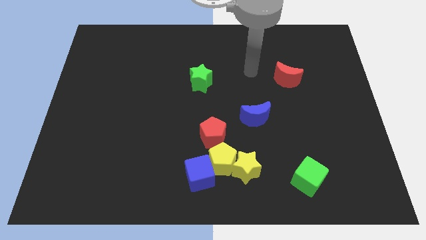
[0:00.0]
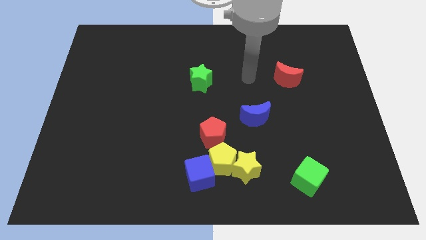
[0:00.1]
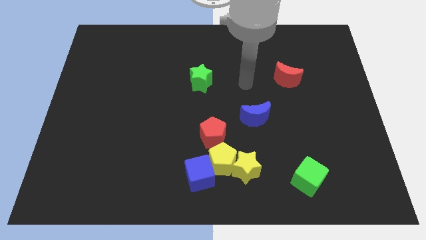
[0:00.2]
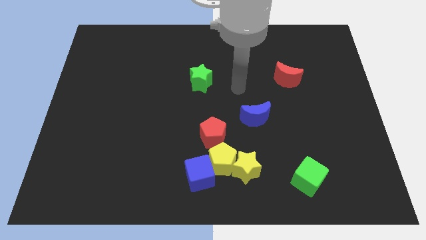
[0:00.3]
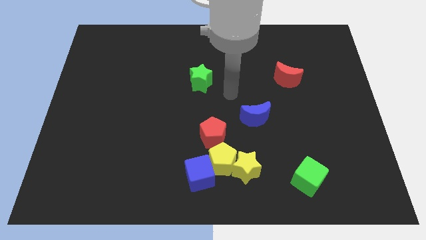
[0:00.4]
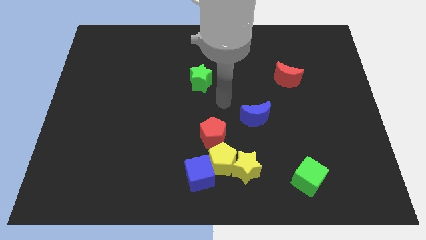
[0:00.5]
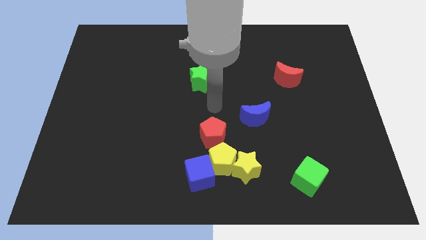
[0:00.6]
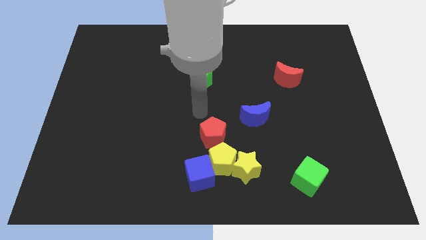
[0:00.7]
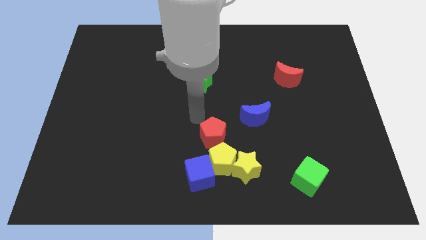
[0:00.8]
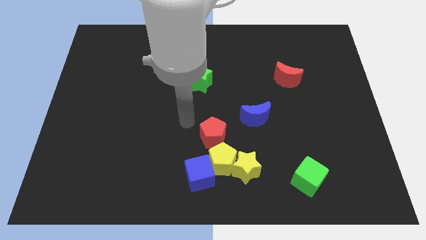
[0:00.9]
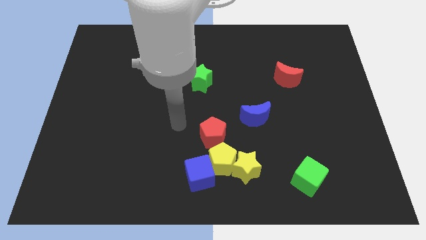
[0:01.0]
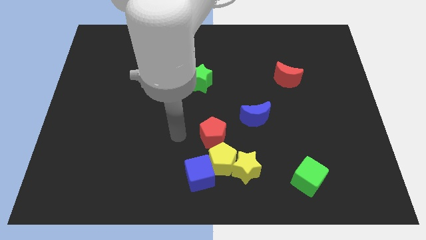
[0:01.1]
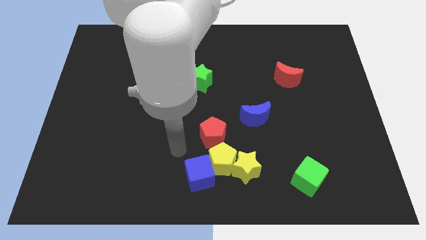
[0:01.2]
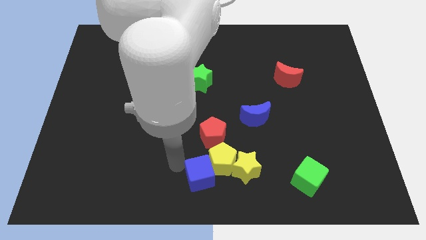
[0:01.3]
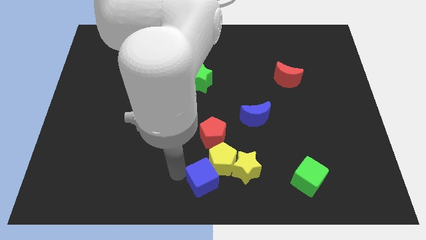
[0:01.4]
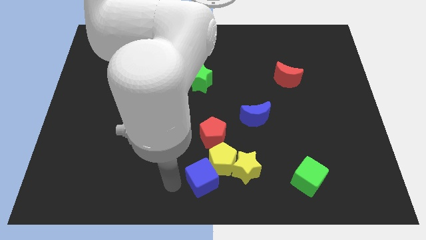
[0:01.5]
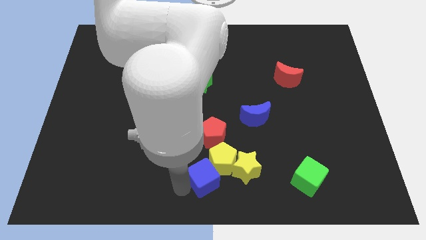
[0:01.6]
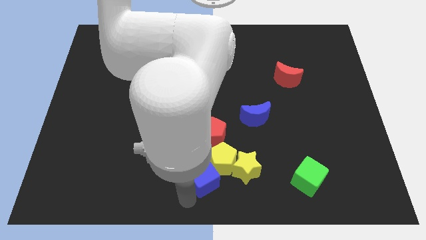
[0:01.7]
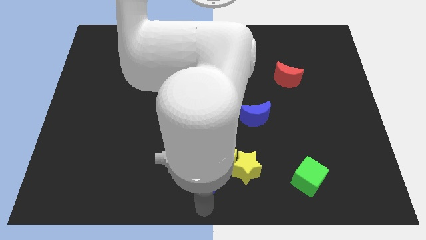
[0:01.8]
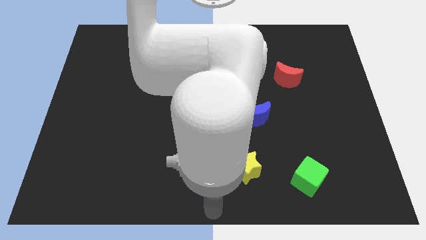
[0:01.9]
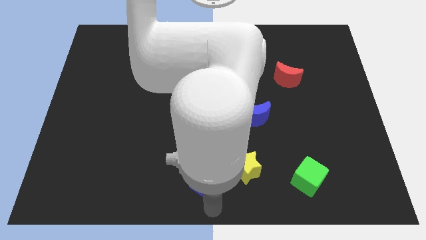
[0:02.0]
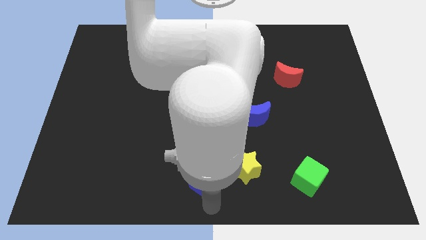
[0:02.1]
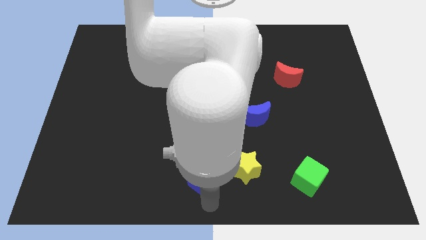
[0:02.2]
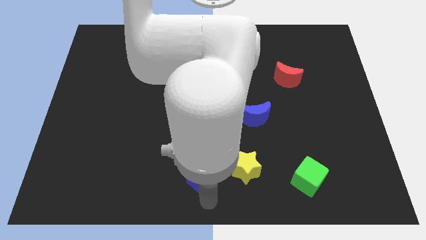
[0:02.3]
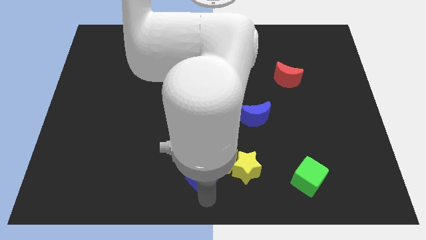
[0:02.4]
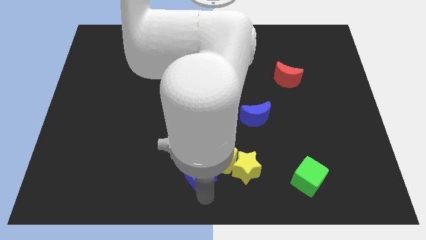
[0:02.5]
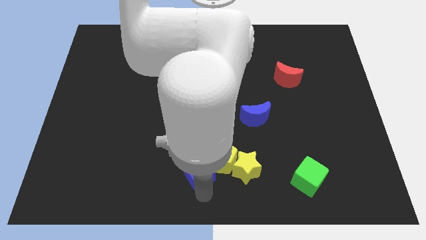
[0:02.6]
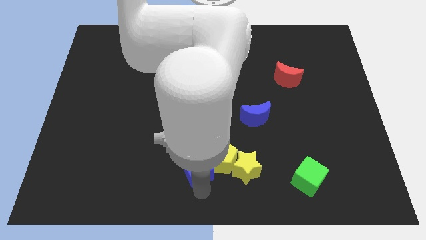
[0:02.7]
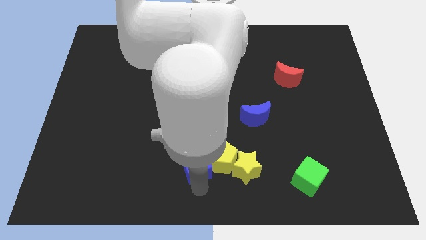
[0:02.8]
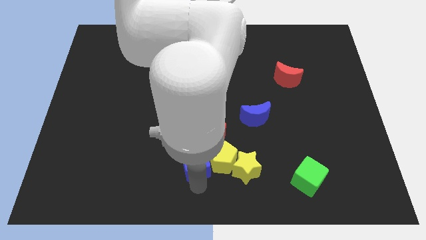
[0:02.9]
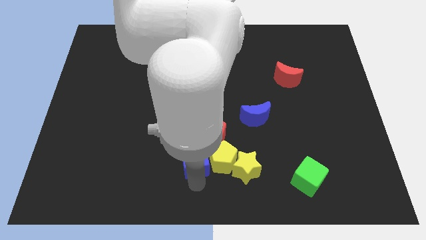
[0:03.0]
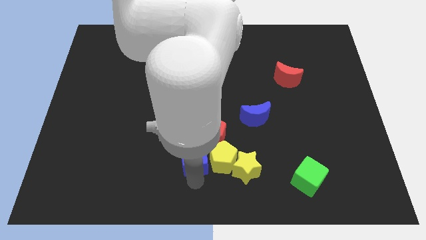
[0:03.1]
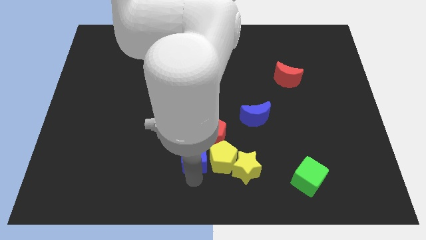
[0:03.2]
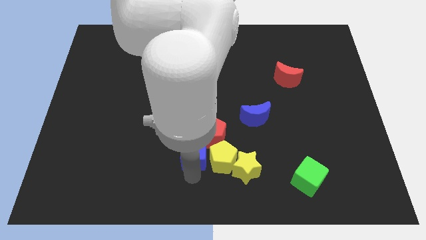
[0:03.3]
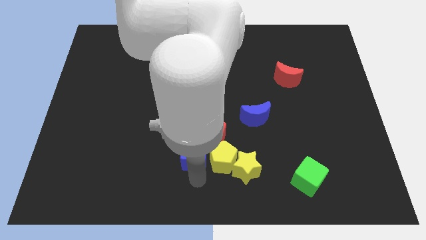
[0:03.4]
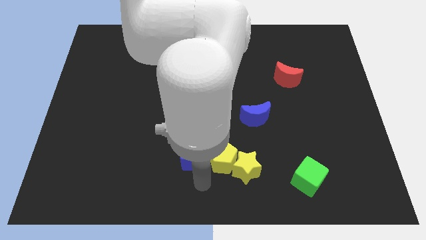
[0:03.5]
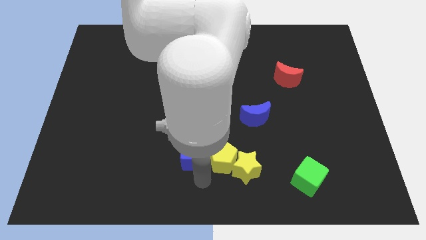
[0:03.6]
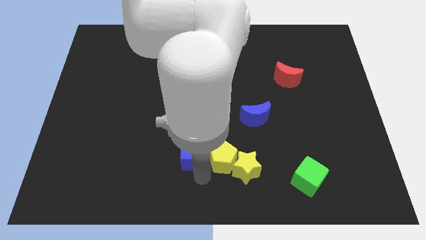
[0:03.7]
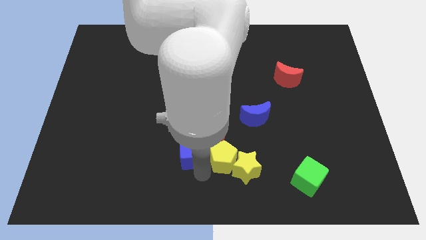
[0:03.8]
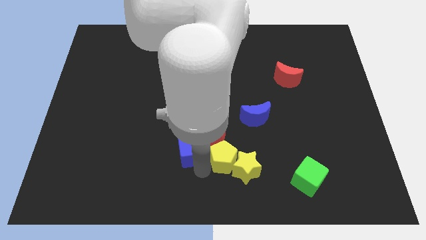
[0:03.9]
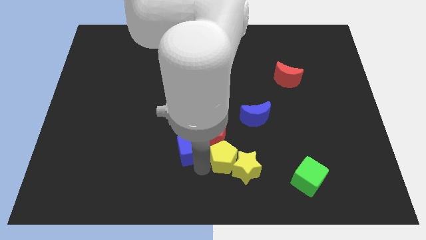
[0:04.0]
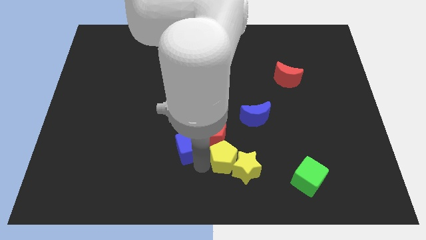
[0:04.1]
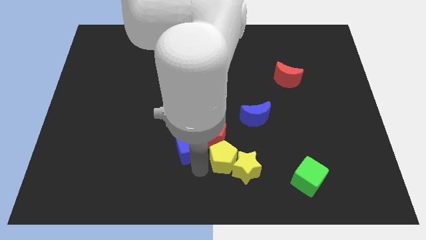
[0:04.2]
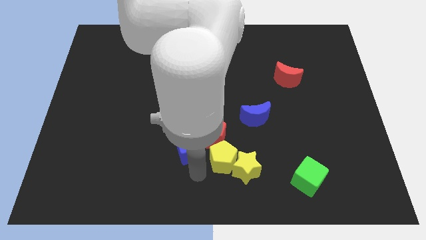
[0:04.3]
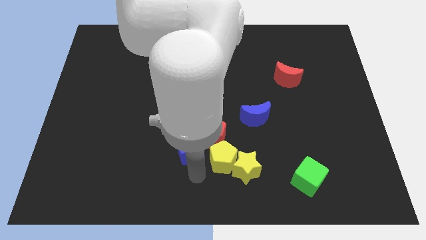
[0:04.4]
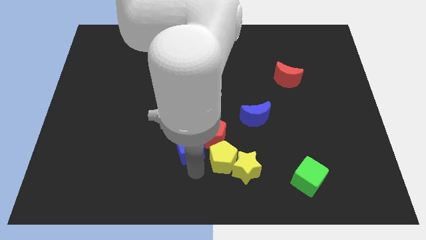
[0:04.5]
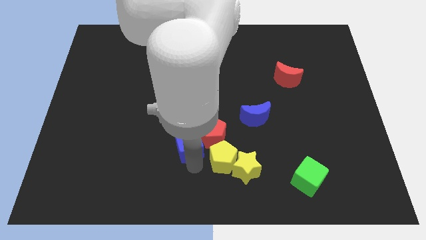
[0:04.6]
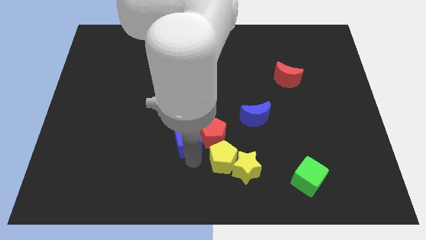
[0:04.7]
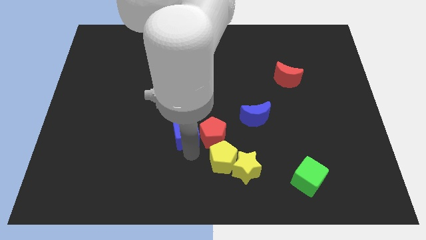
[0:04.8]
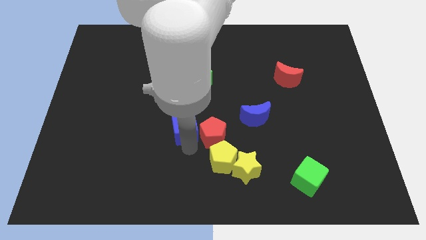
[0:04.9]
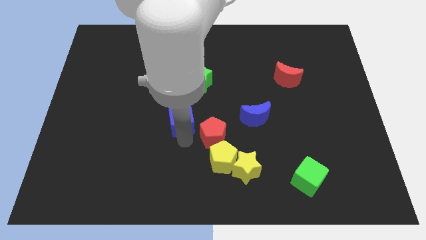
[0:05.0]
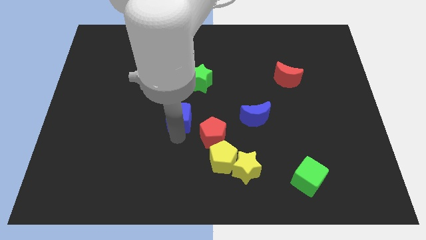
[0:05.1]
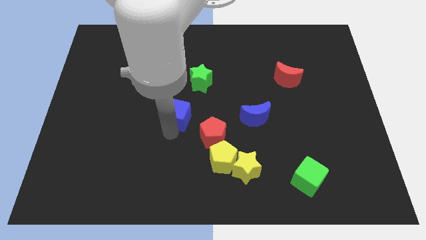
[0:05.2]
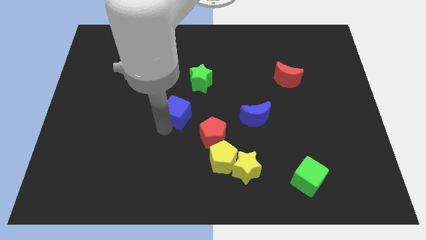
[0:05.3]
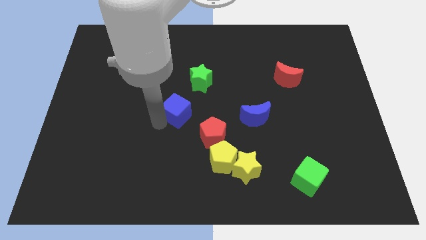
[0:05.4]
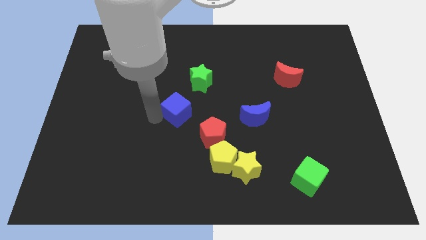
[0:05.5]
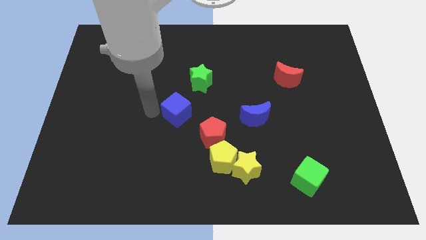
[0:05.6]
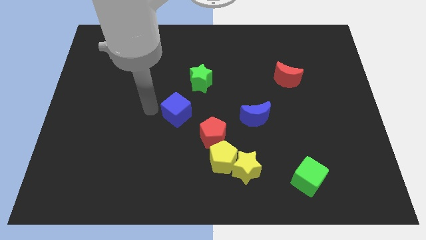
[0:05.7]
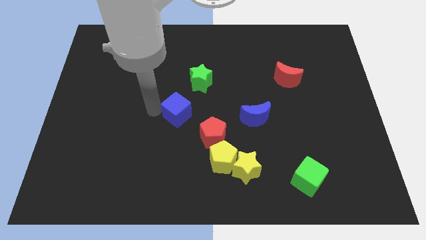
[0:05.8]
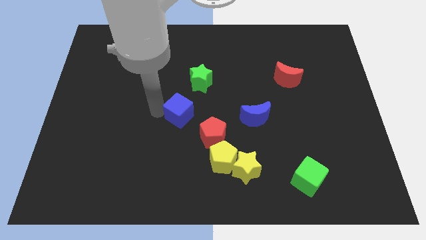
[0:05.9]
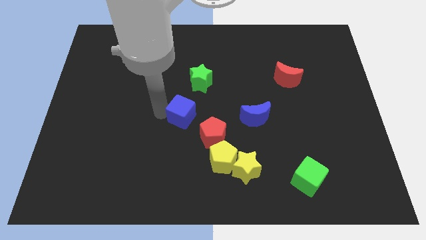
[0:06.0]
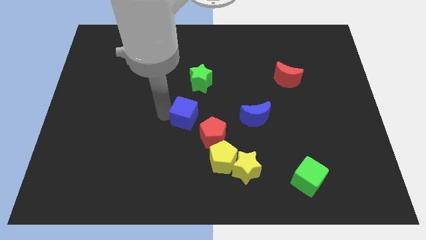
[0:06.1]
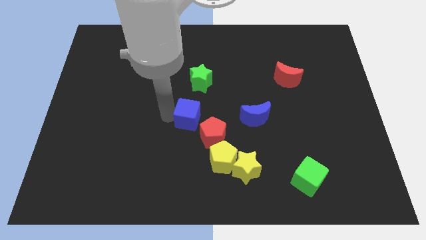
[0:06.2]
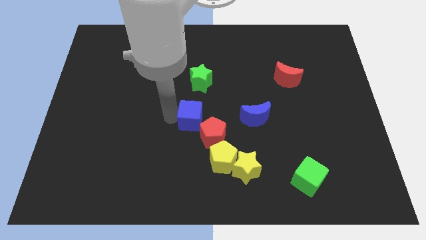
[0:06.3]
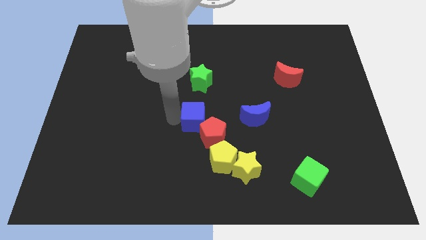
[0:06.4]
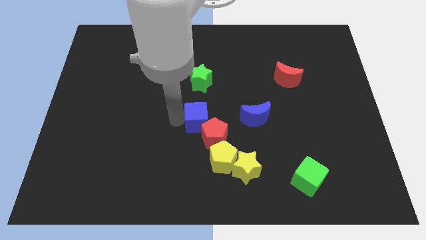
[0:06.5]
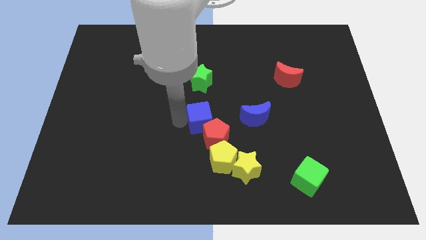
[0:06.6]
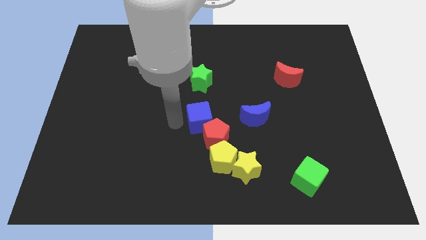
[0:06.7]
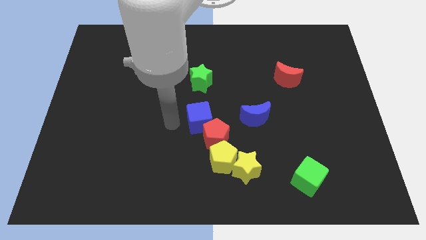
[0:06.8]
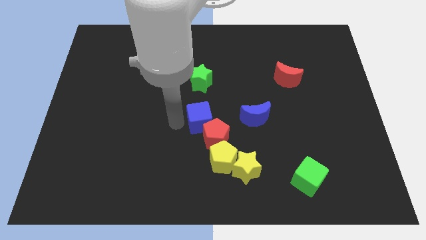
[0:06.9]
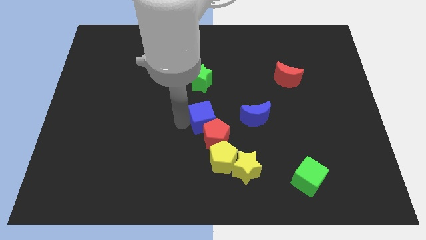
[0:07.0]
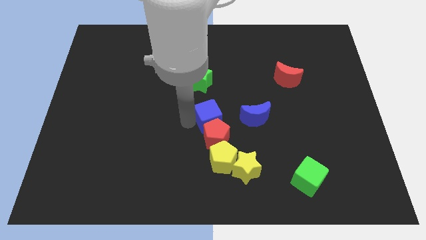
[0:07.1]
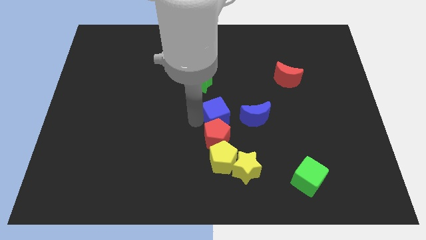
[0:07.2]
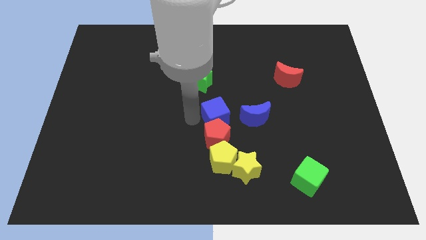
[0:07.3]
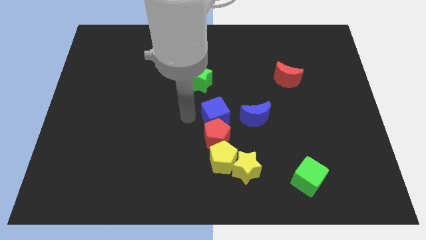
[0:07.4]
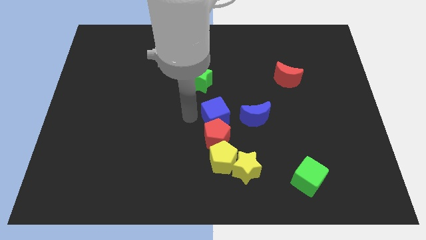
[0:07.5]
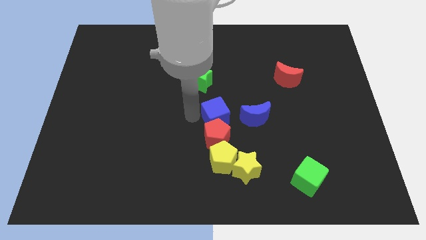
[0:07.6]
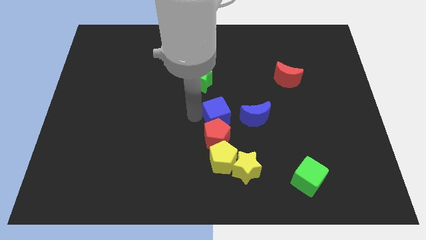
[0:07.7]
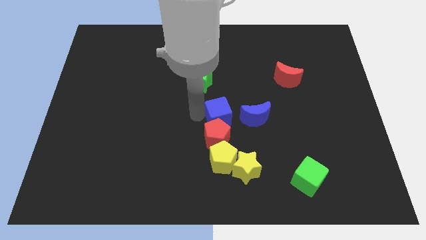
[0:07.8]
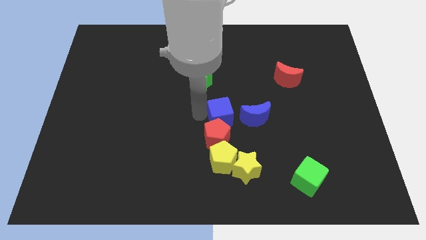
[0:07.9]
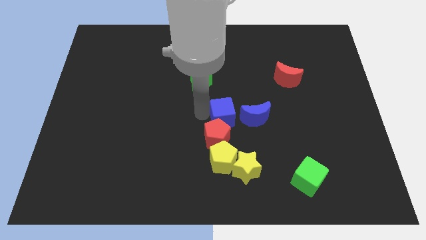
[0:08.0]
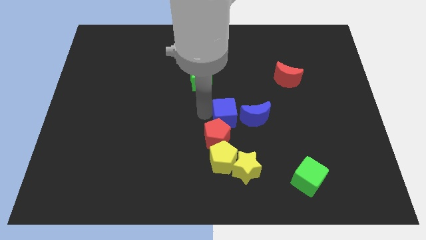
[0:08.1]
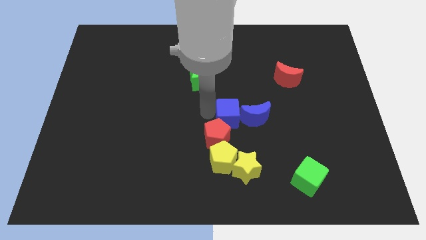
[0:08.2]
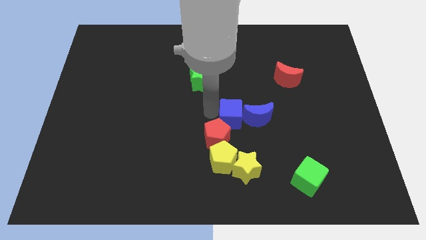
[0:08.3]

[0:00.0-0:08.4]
slide the blue cube next to the blue moon
